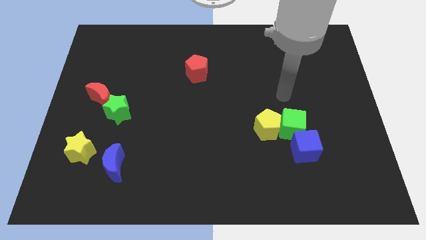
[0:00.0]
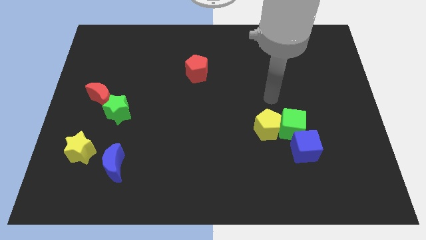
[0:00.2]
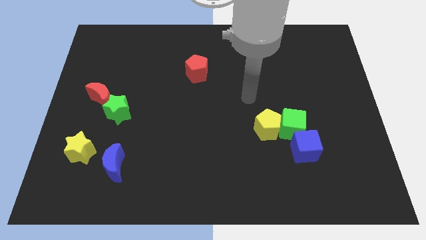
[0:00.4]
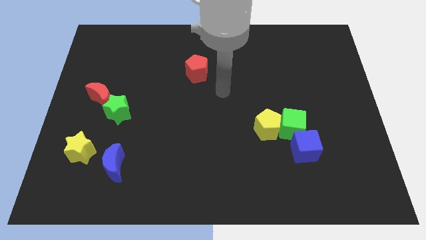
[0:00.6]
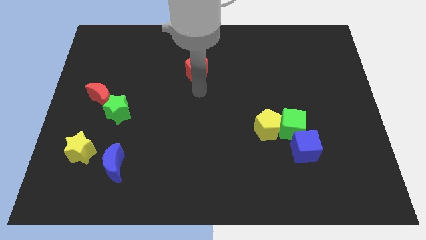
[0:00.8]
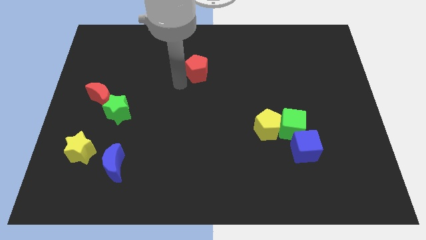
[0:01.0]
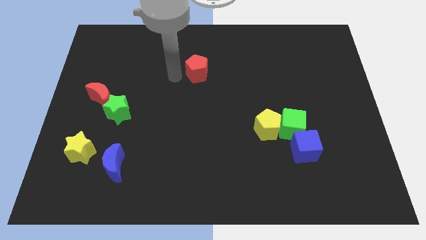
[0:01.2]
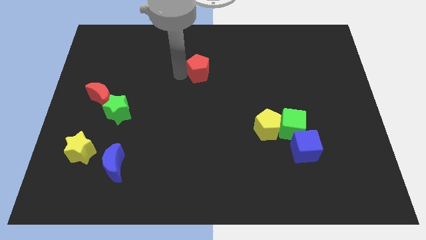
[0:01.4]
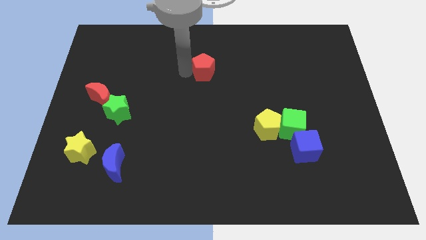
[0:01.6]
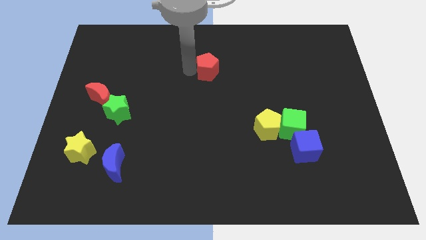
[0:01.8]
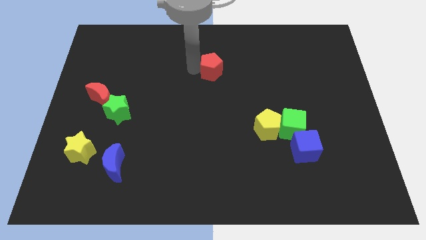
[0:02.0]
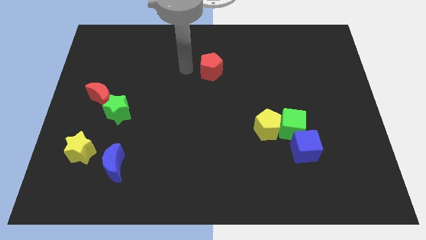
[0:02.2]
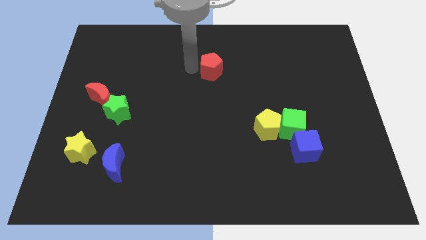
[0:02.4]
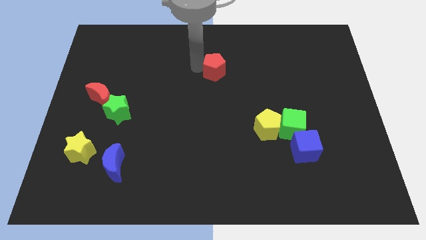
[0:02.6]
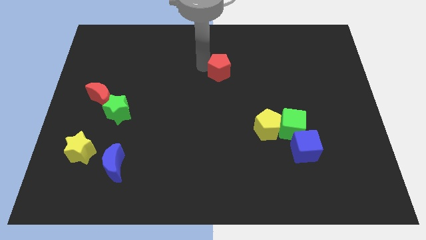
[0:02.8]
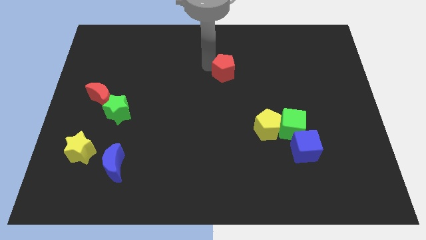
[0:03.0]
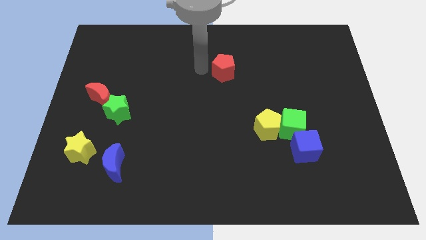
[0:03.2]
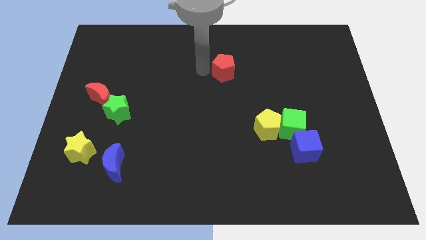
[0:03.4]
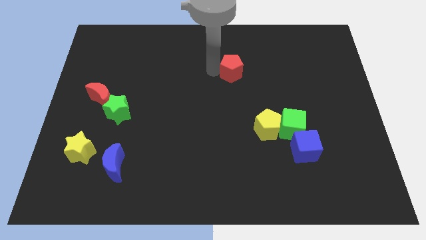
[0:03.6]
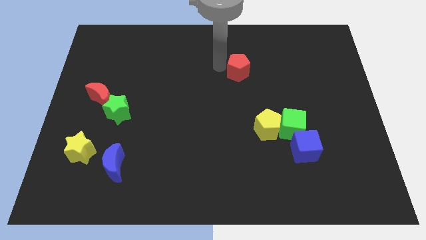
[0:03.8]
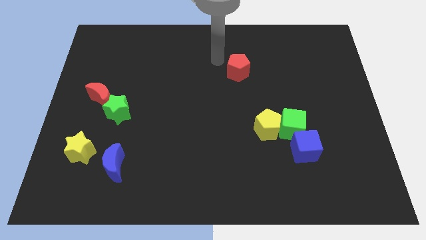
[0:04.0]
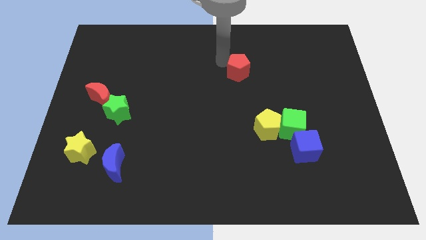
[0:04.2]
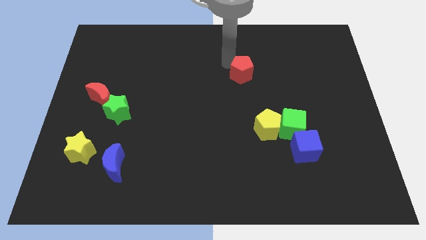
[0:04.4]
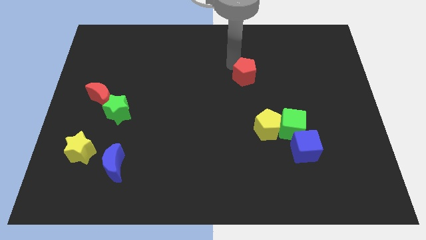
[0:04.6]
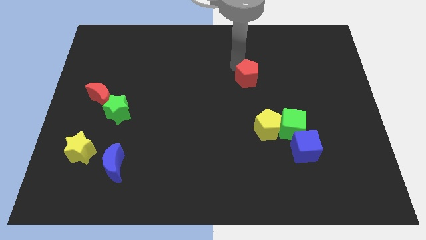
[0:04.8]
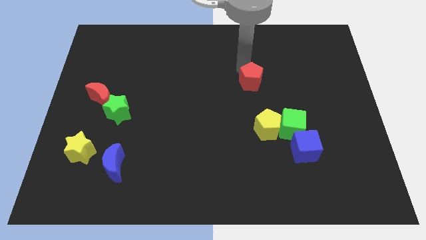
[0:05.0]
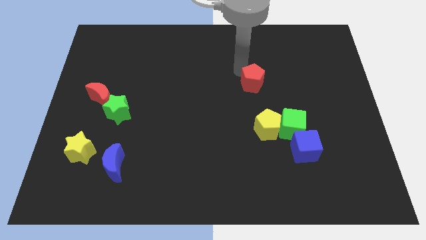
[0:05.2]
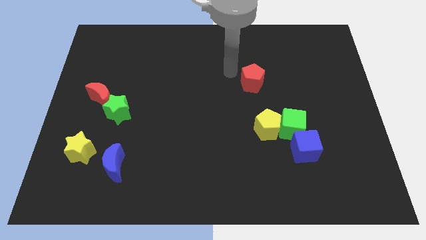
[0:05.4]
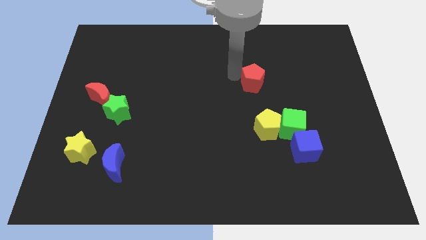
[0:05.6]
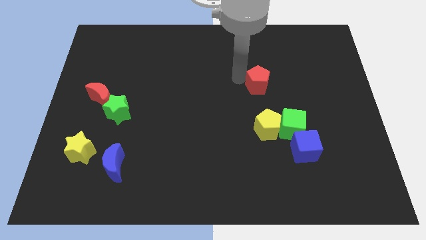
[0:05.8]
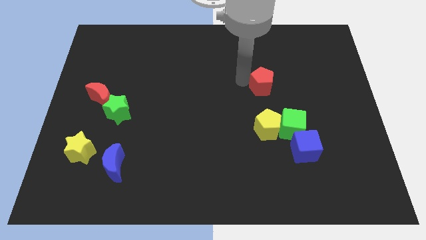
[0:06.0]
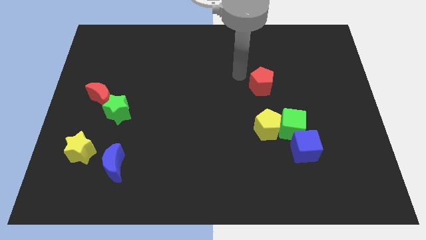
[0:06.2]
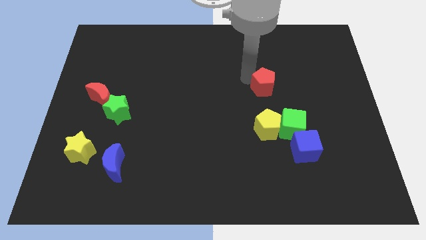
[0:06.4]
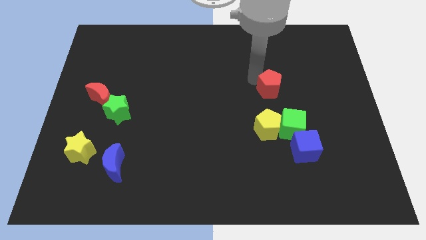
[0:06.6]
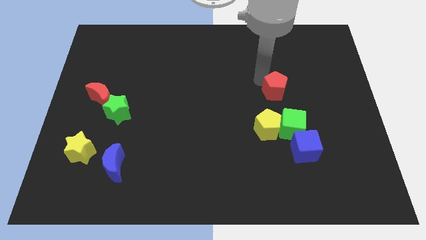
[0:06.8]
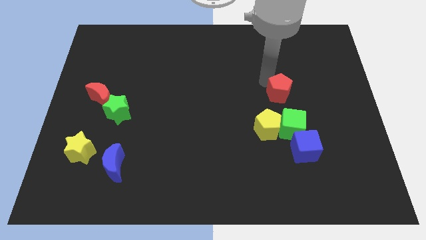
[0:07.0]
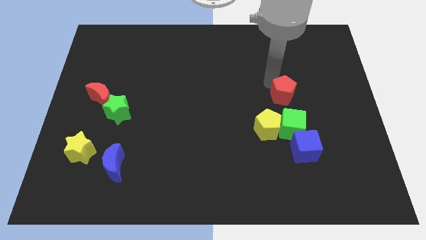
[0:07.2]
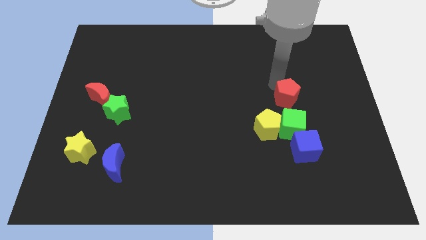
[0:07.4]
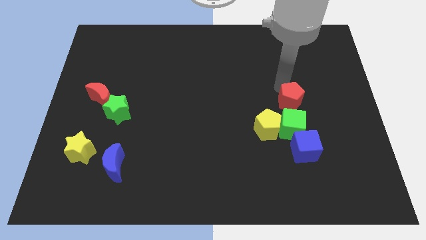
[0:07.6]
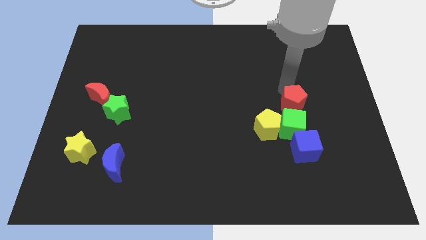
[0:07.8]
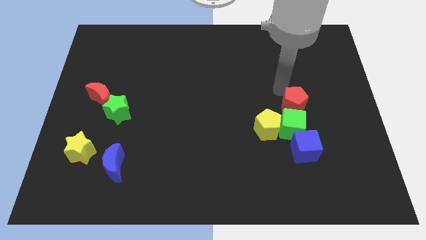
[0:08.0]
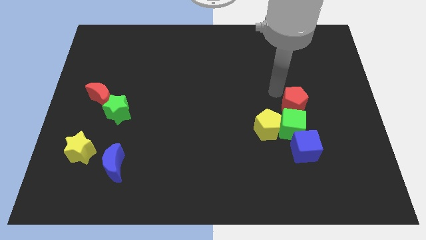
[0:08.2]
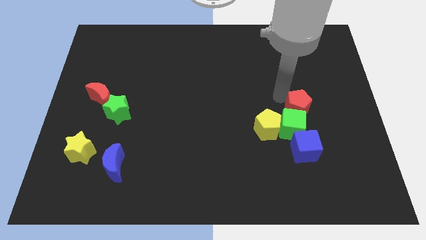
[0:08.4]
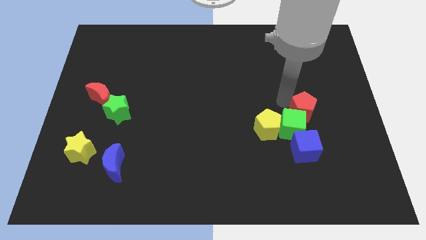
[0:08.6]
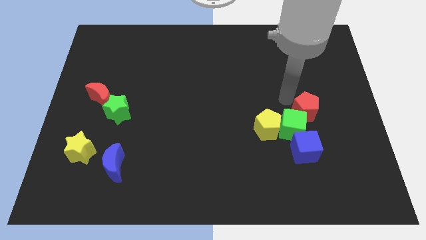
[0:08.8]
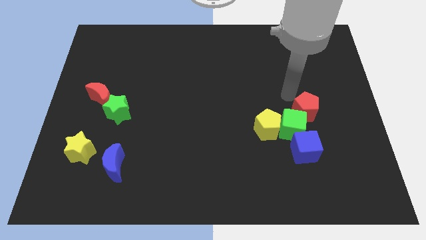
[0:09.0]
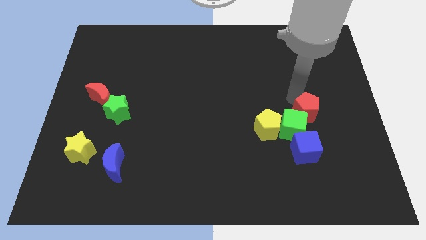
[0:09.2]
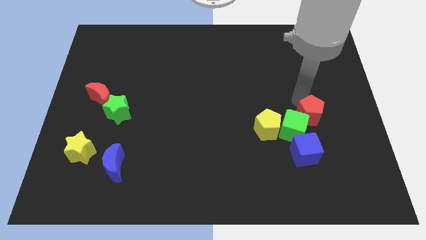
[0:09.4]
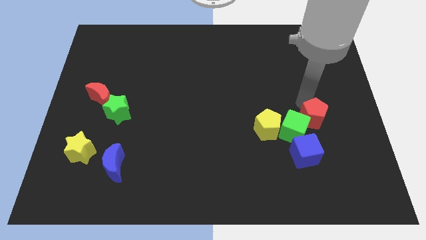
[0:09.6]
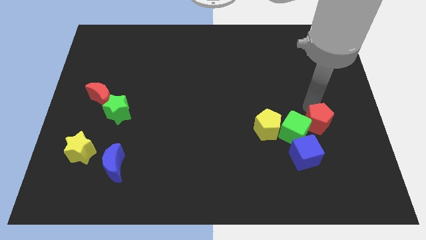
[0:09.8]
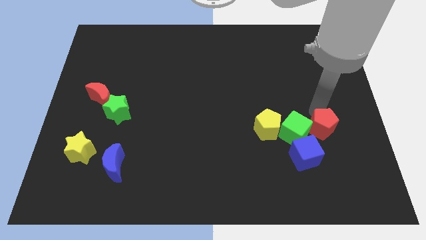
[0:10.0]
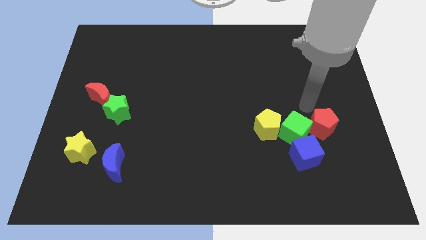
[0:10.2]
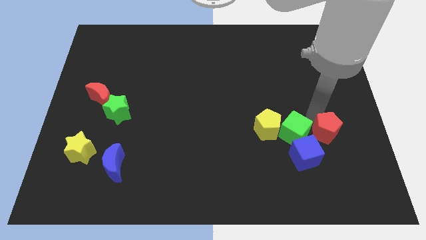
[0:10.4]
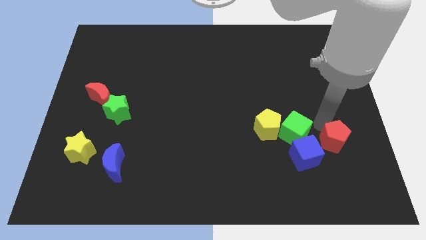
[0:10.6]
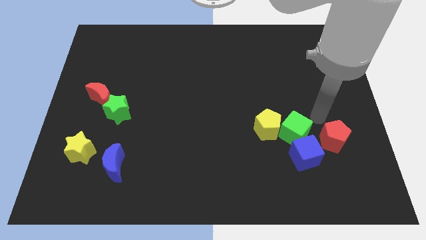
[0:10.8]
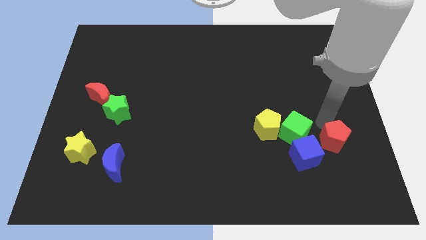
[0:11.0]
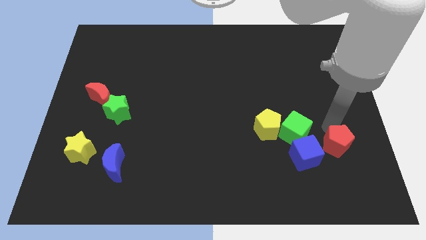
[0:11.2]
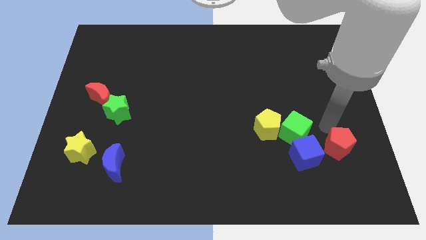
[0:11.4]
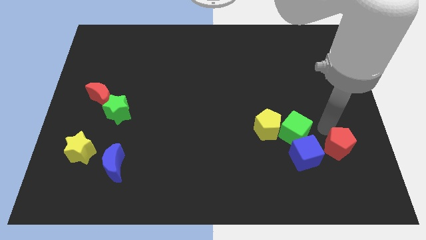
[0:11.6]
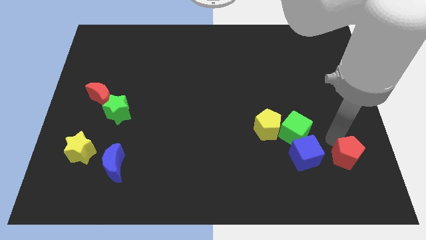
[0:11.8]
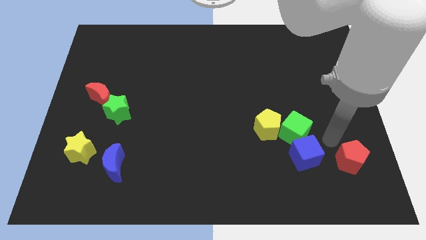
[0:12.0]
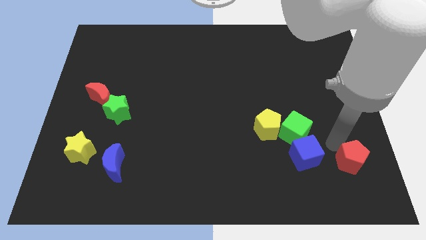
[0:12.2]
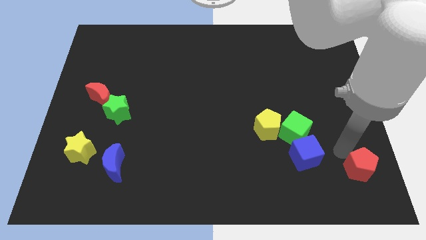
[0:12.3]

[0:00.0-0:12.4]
slide the red pentagon to the bottom right corner

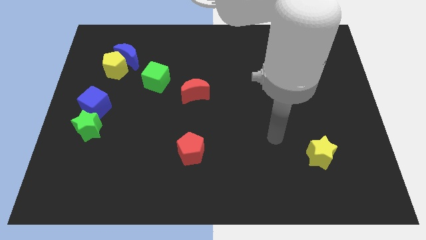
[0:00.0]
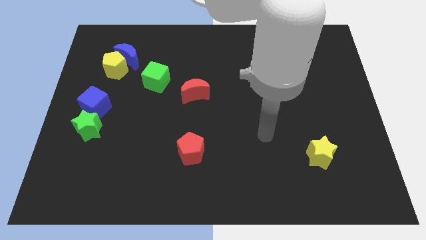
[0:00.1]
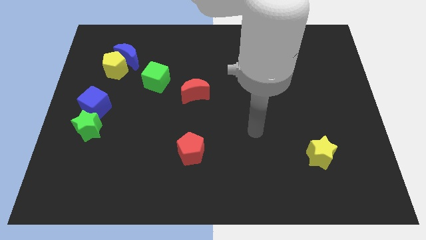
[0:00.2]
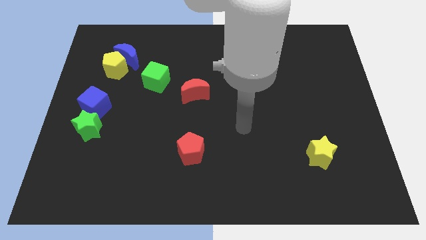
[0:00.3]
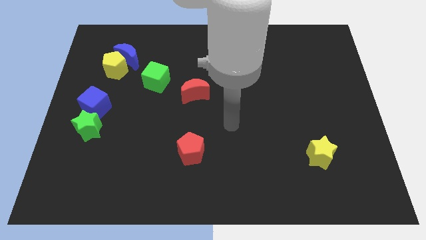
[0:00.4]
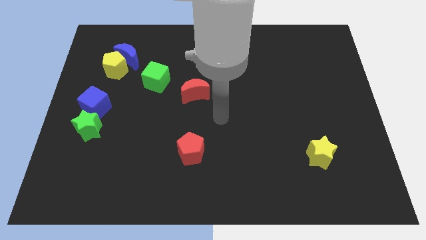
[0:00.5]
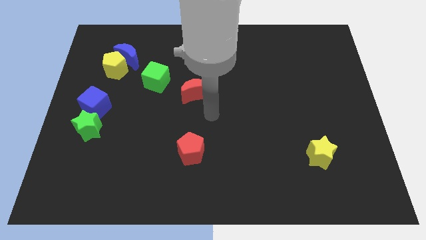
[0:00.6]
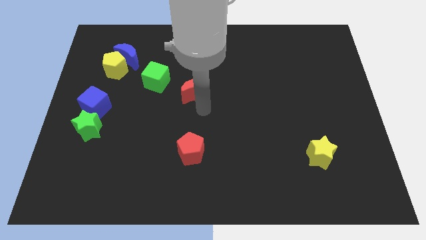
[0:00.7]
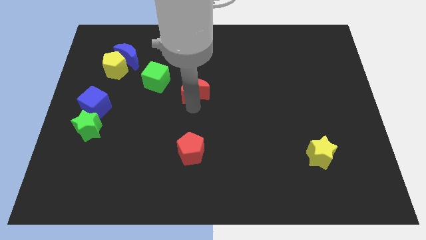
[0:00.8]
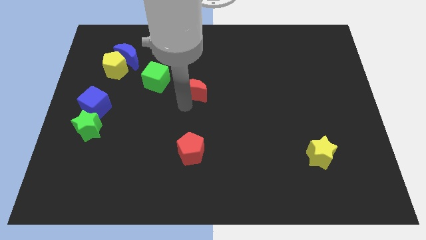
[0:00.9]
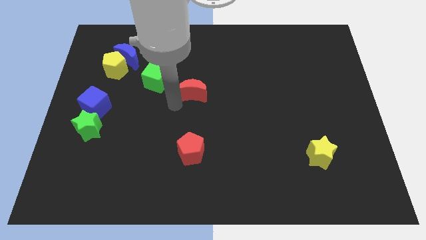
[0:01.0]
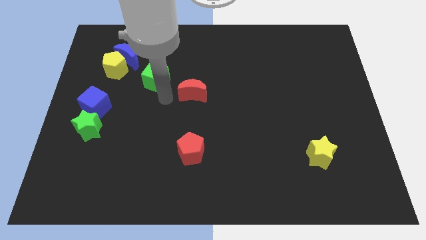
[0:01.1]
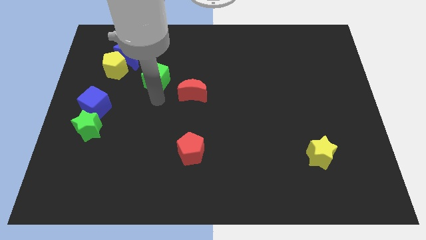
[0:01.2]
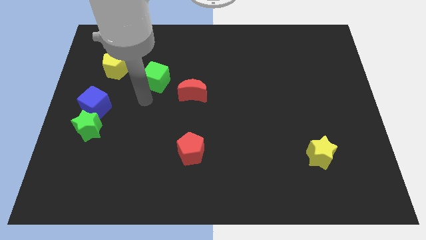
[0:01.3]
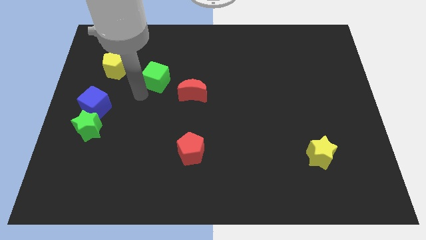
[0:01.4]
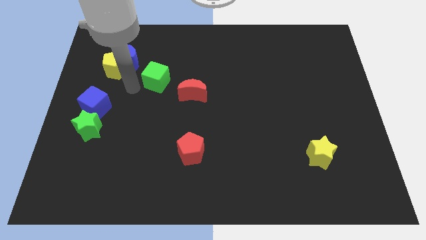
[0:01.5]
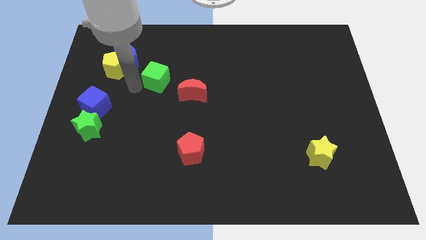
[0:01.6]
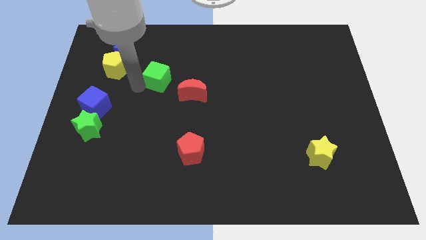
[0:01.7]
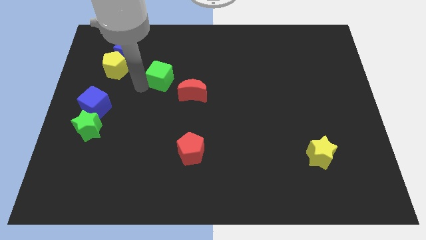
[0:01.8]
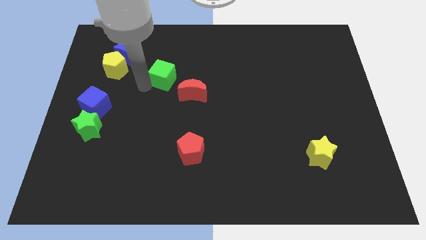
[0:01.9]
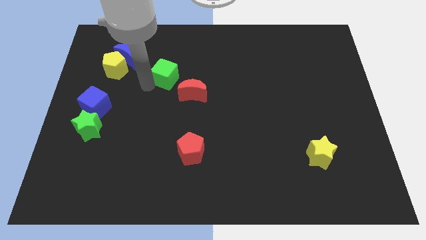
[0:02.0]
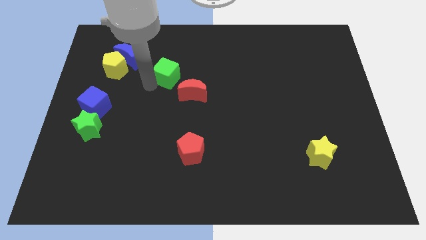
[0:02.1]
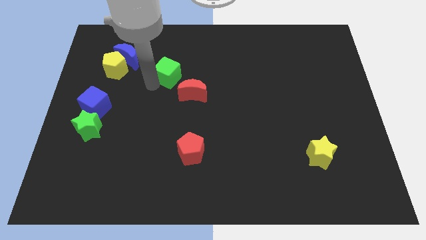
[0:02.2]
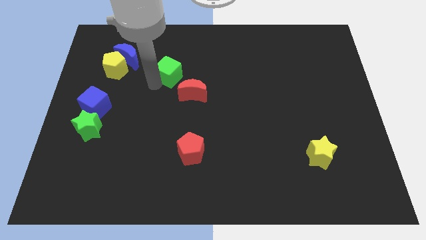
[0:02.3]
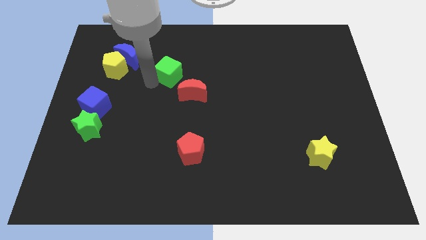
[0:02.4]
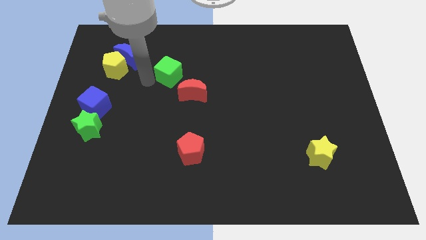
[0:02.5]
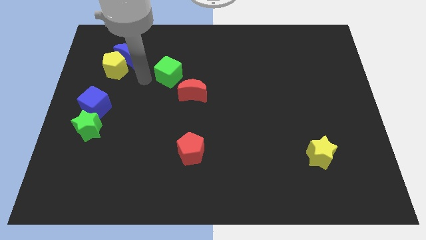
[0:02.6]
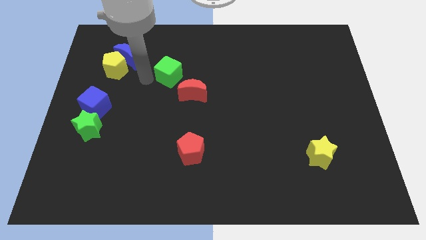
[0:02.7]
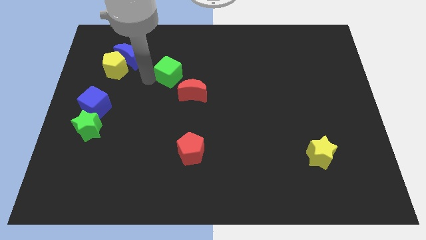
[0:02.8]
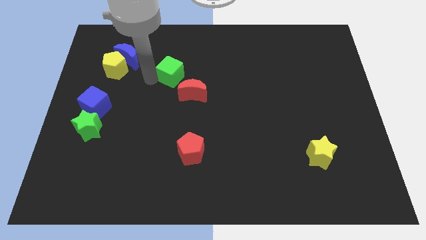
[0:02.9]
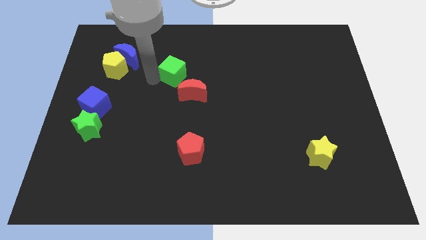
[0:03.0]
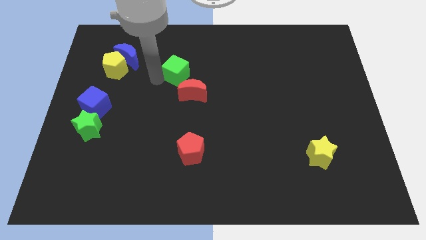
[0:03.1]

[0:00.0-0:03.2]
slide the green cube to the center
